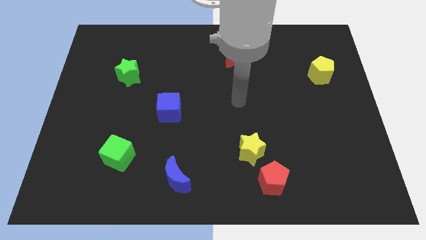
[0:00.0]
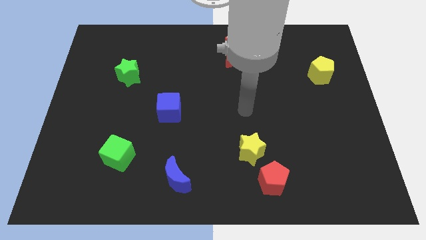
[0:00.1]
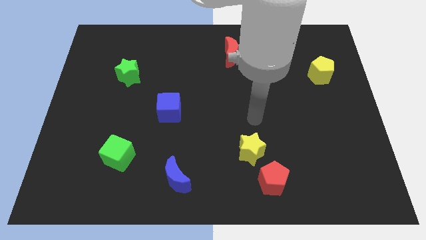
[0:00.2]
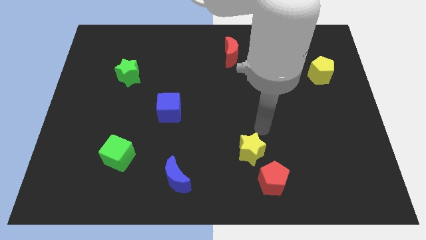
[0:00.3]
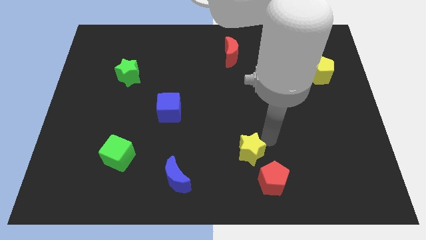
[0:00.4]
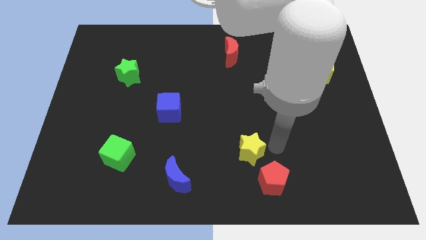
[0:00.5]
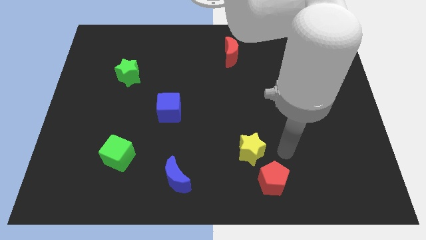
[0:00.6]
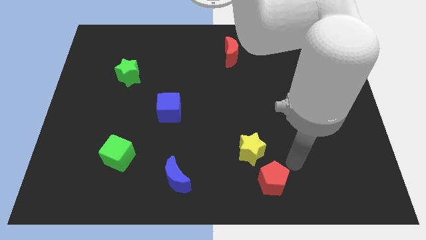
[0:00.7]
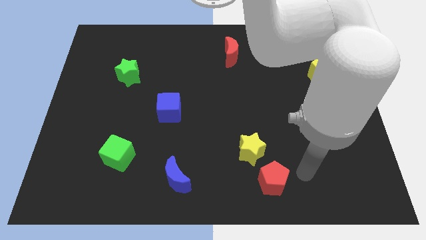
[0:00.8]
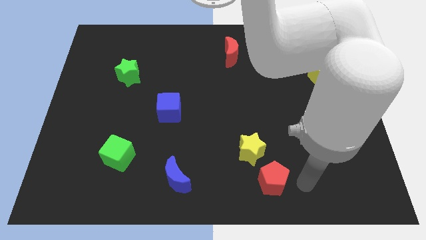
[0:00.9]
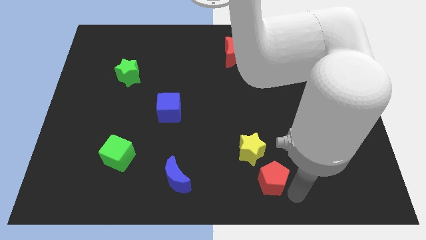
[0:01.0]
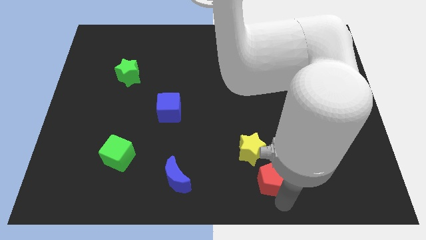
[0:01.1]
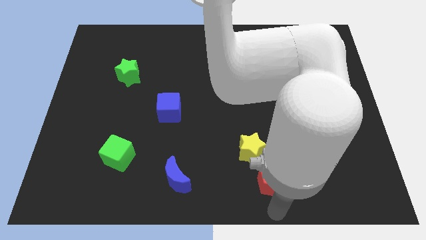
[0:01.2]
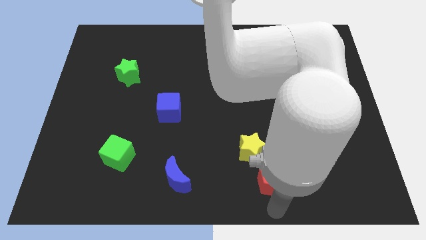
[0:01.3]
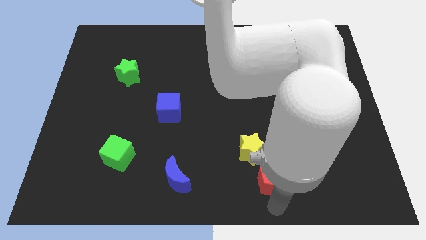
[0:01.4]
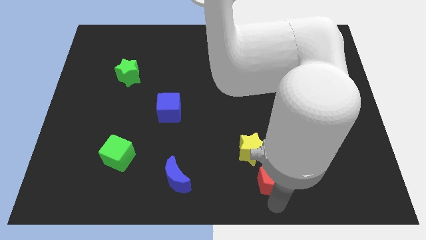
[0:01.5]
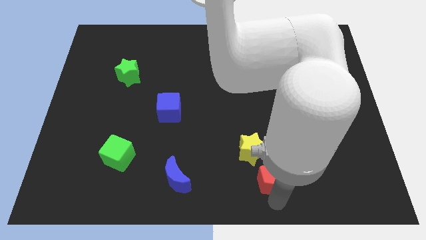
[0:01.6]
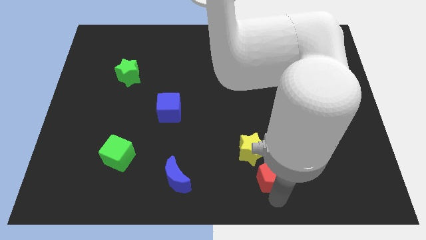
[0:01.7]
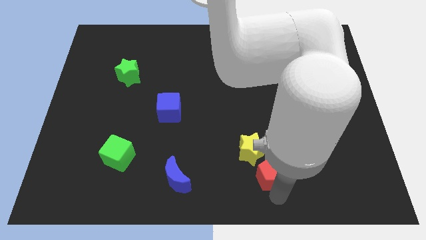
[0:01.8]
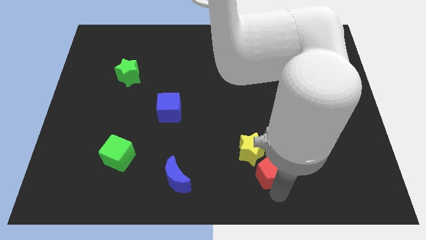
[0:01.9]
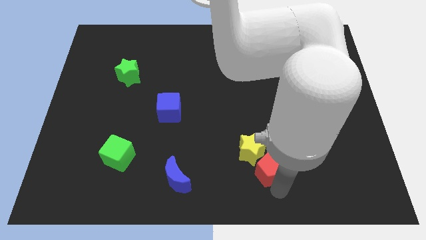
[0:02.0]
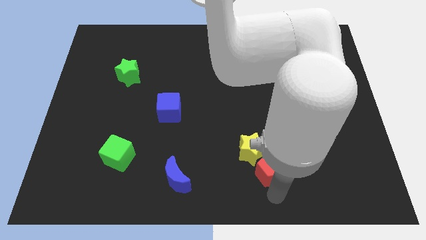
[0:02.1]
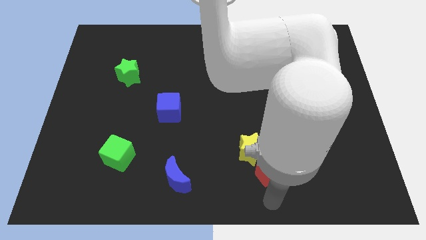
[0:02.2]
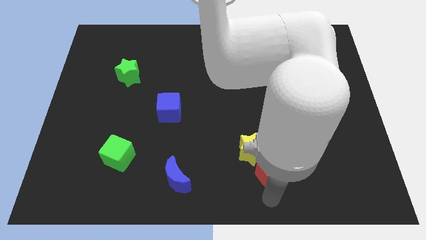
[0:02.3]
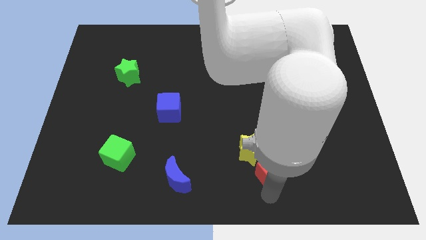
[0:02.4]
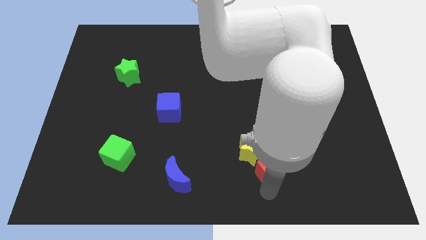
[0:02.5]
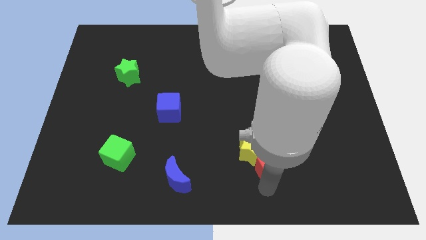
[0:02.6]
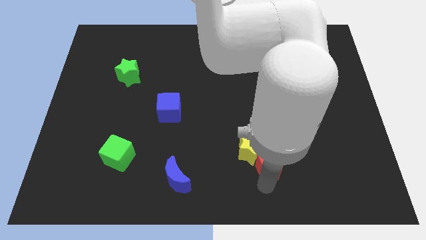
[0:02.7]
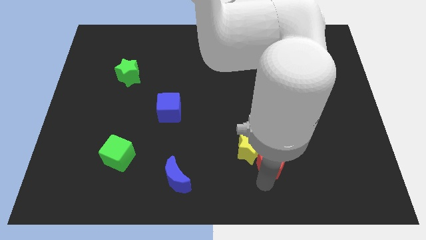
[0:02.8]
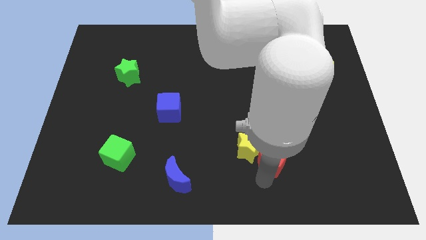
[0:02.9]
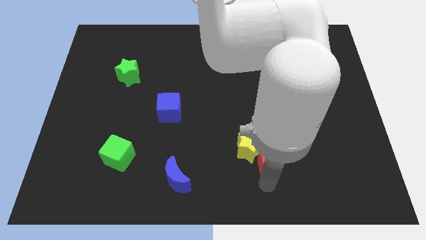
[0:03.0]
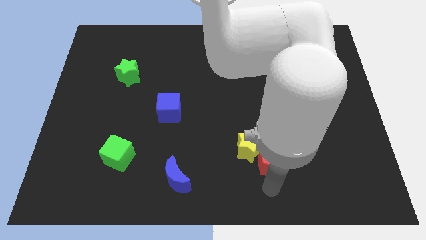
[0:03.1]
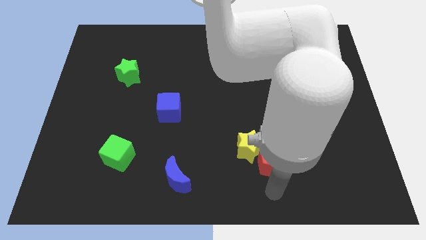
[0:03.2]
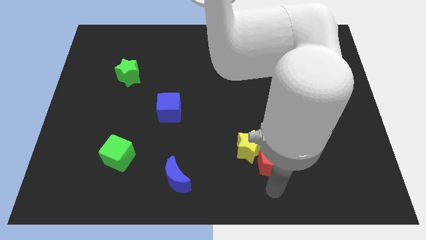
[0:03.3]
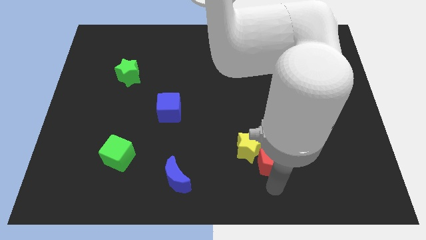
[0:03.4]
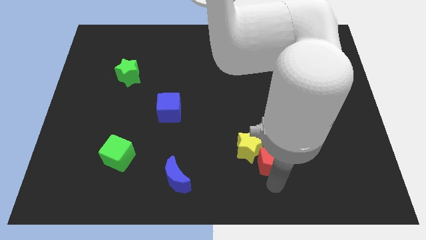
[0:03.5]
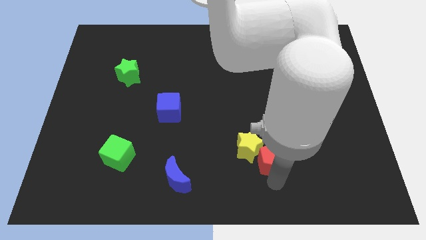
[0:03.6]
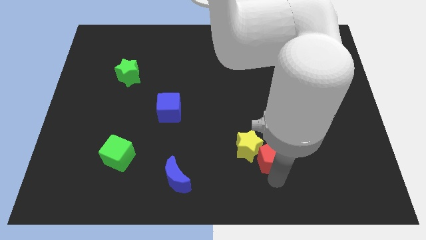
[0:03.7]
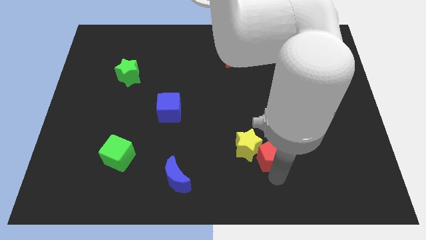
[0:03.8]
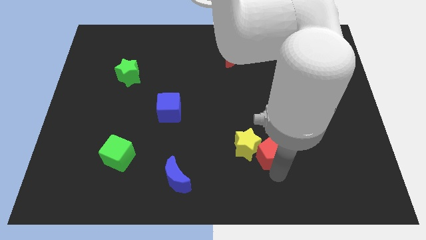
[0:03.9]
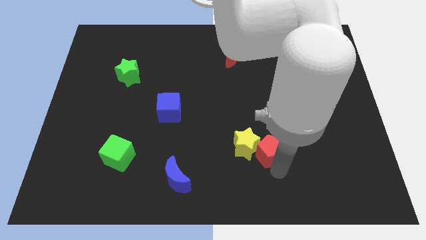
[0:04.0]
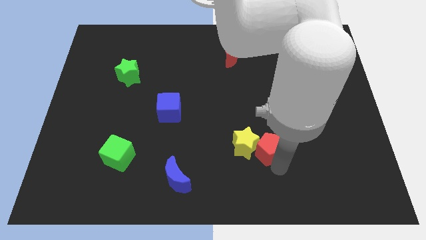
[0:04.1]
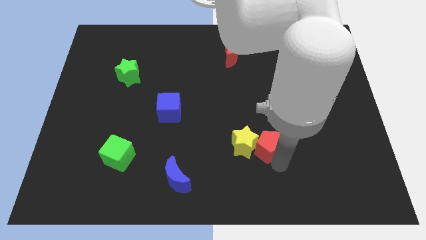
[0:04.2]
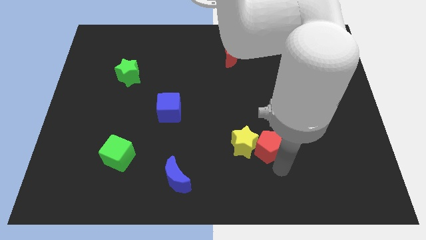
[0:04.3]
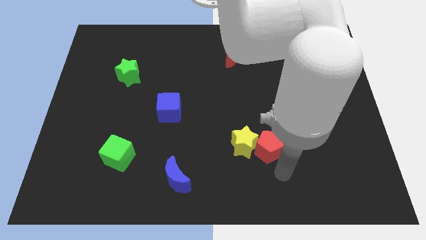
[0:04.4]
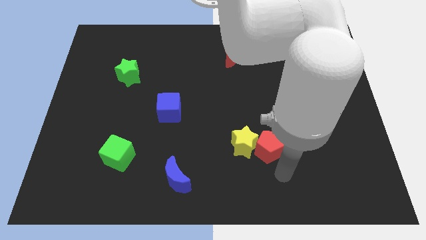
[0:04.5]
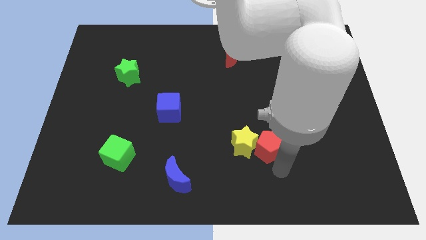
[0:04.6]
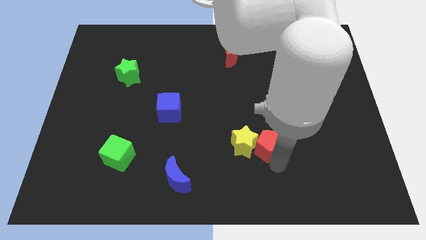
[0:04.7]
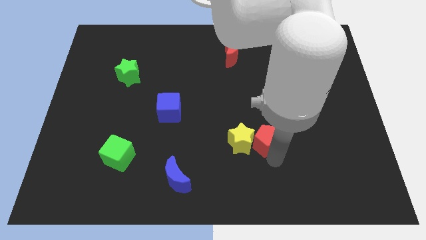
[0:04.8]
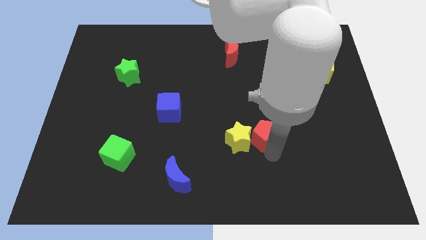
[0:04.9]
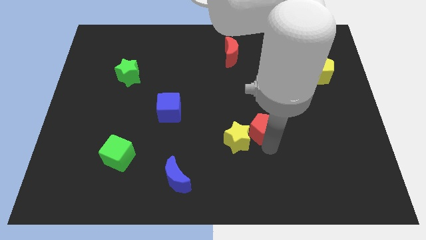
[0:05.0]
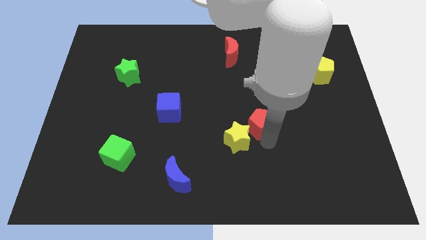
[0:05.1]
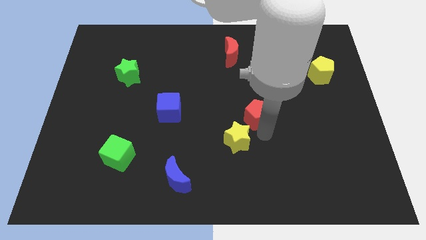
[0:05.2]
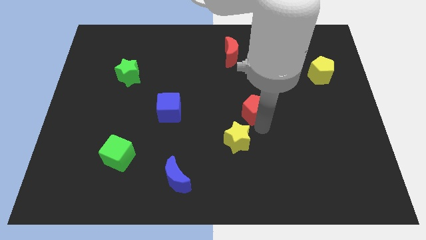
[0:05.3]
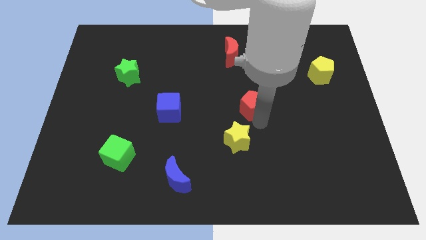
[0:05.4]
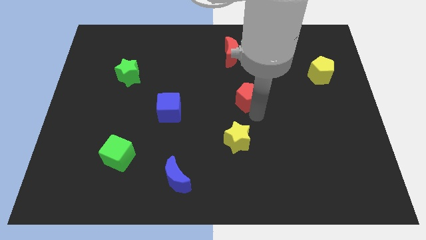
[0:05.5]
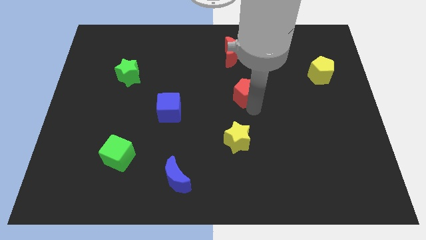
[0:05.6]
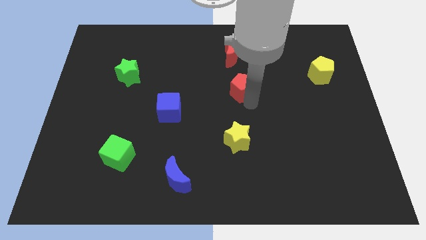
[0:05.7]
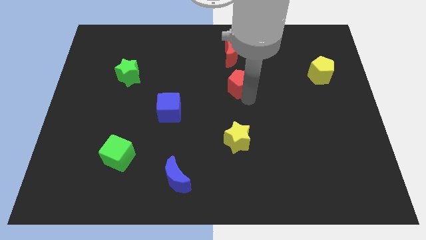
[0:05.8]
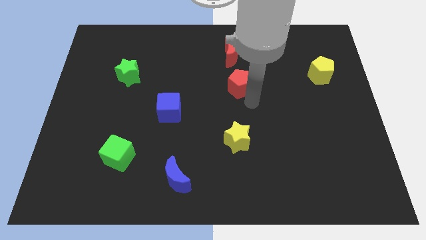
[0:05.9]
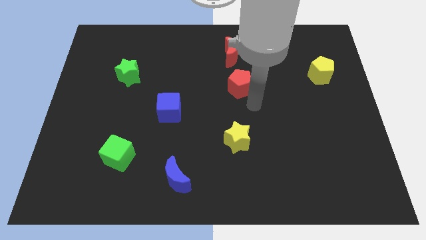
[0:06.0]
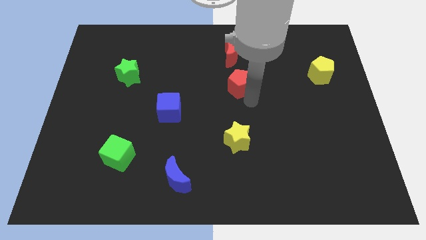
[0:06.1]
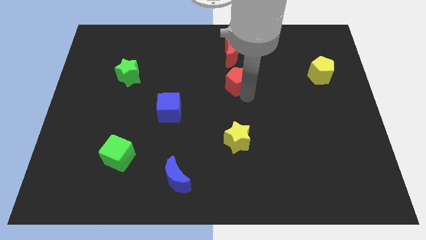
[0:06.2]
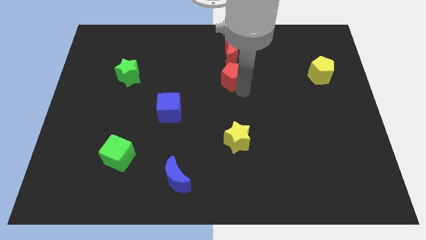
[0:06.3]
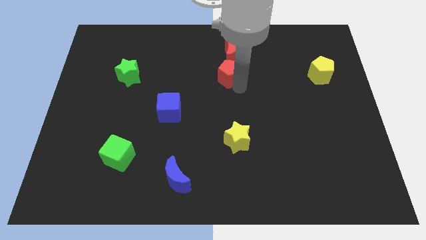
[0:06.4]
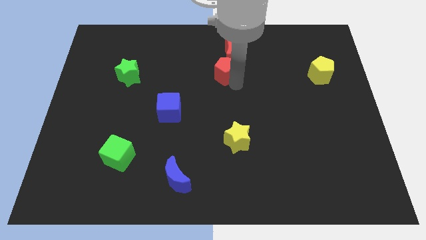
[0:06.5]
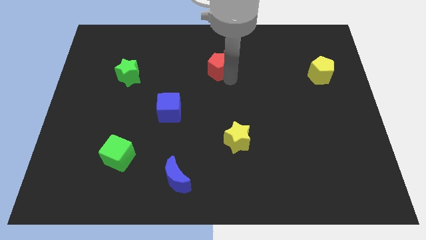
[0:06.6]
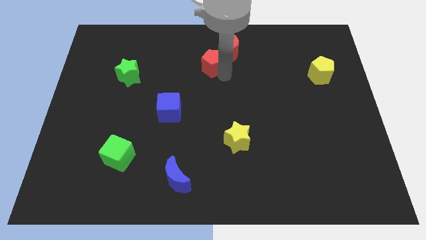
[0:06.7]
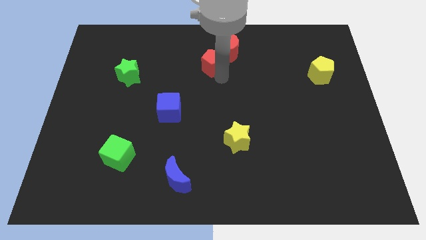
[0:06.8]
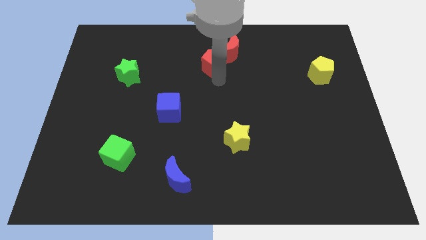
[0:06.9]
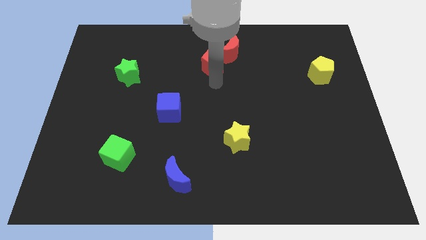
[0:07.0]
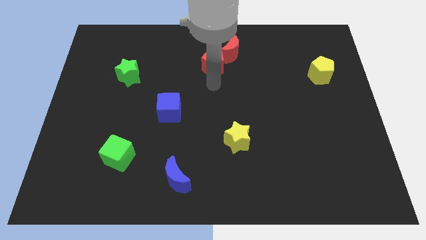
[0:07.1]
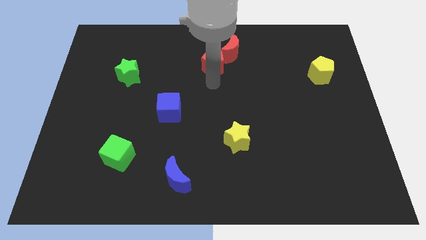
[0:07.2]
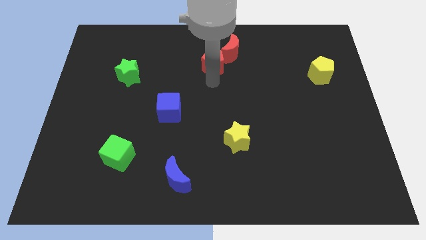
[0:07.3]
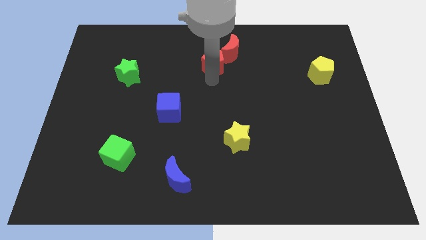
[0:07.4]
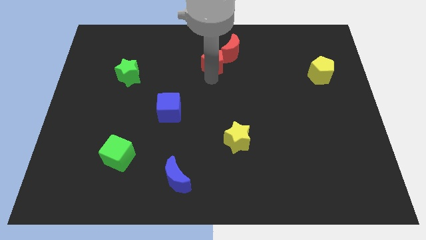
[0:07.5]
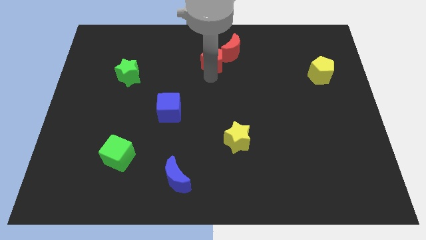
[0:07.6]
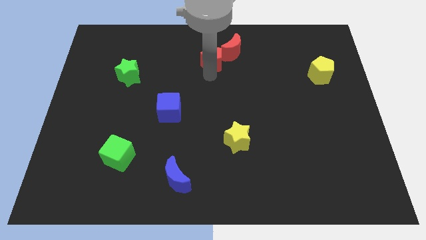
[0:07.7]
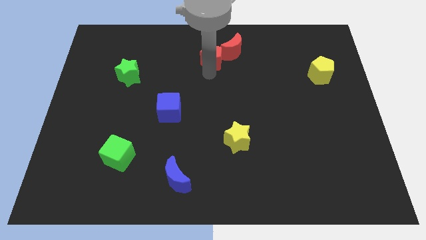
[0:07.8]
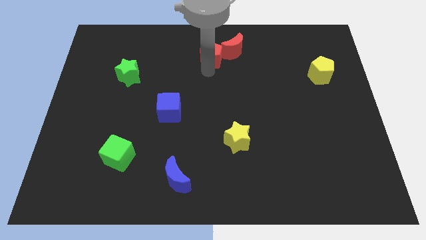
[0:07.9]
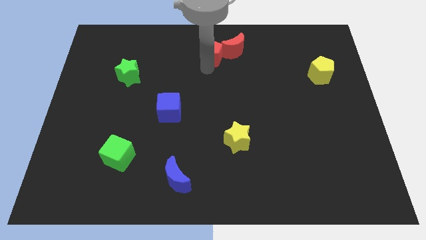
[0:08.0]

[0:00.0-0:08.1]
move the red pentagon to the top side
